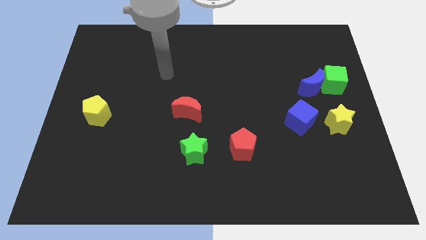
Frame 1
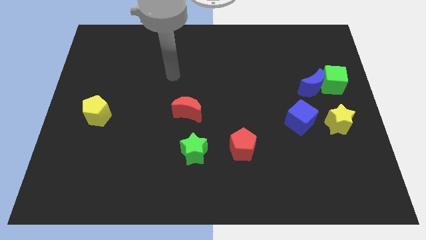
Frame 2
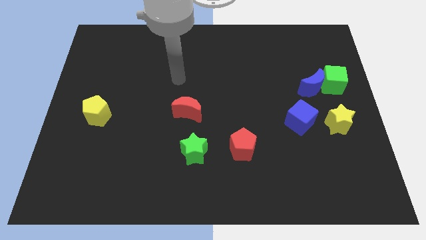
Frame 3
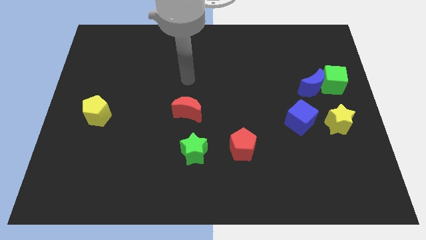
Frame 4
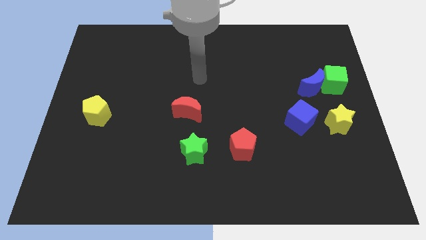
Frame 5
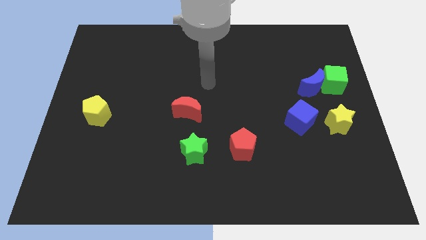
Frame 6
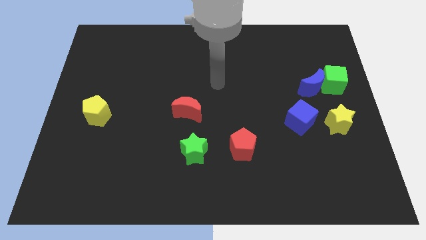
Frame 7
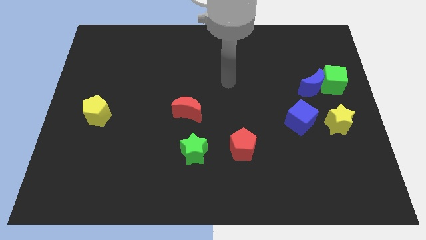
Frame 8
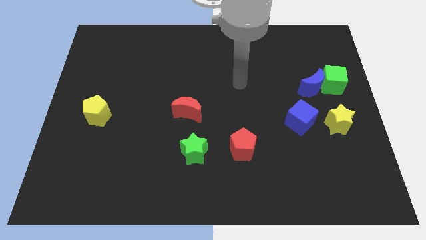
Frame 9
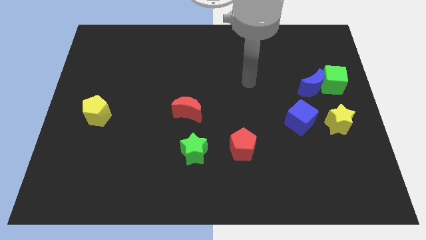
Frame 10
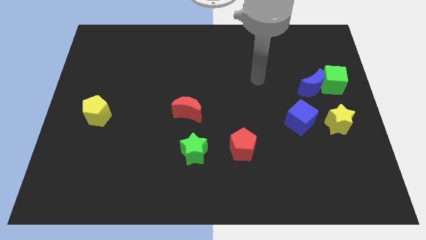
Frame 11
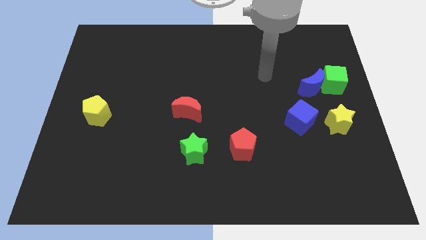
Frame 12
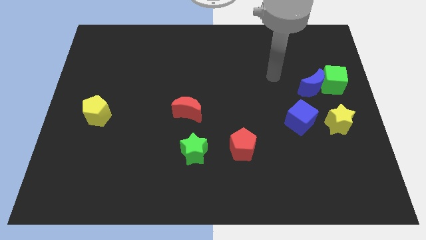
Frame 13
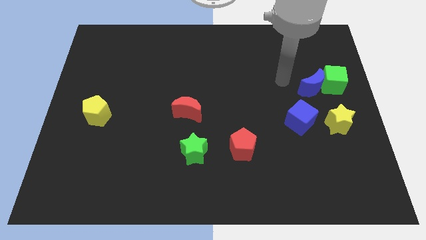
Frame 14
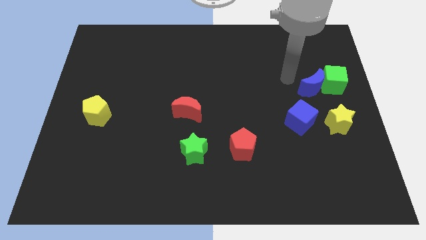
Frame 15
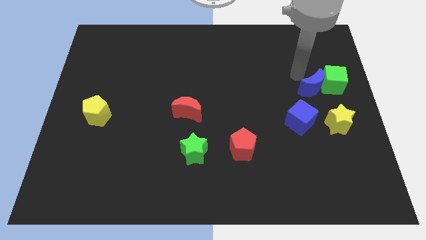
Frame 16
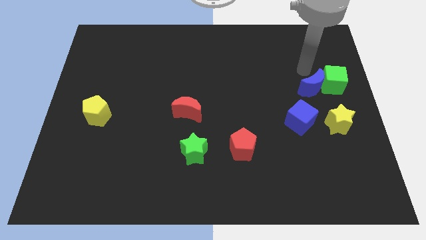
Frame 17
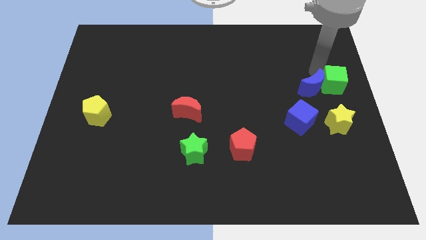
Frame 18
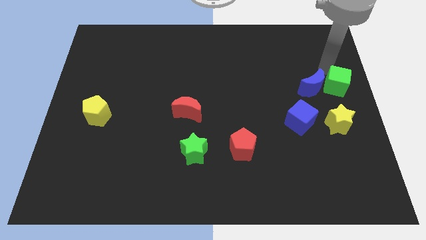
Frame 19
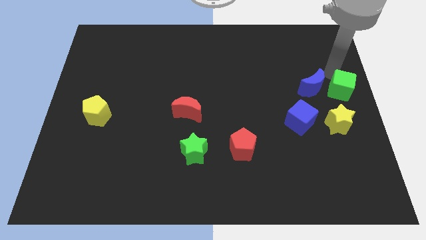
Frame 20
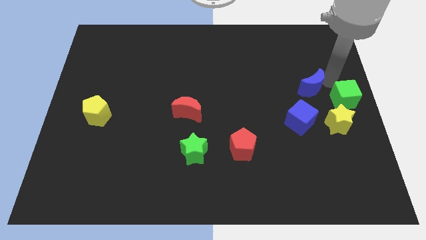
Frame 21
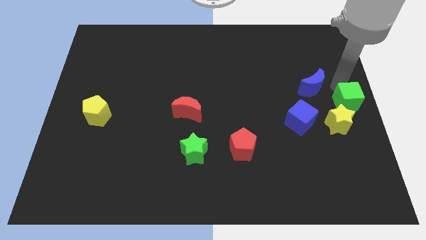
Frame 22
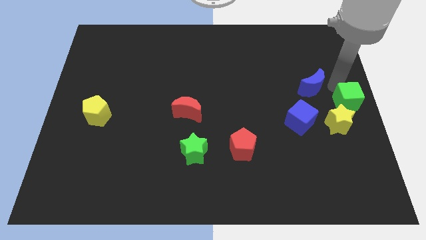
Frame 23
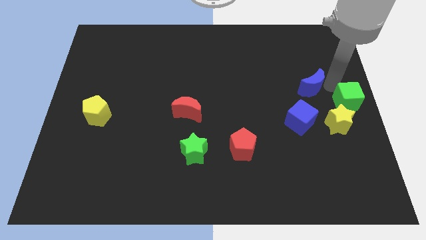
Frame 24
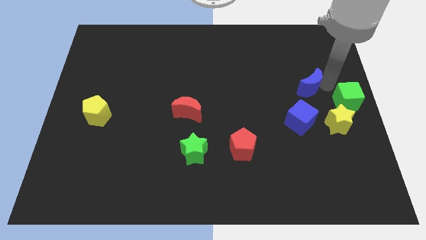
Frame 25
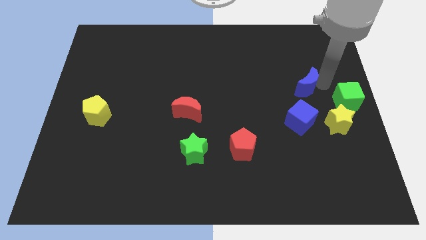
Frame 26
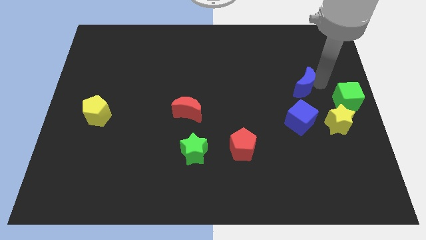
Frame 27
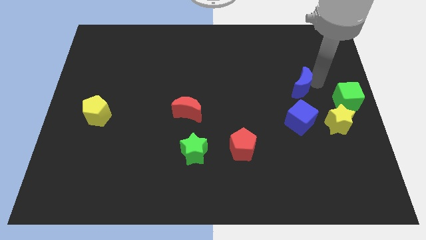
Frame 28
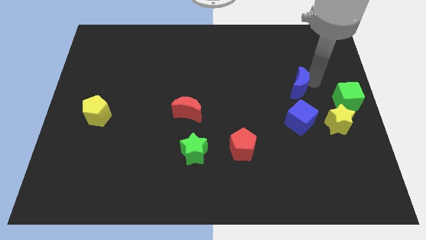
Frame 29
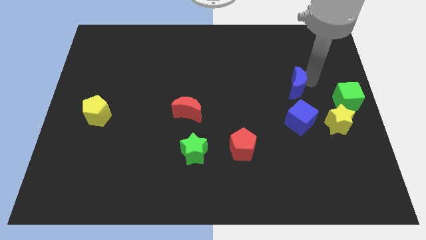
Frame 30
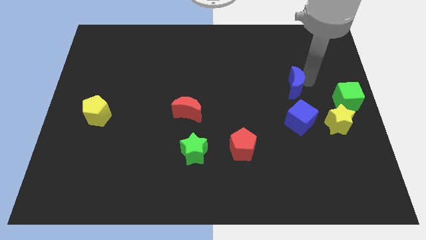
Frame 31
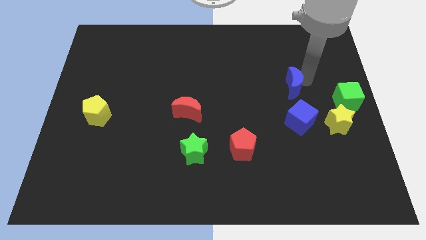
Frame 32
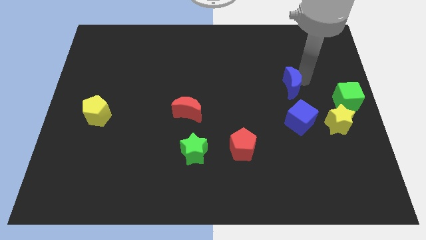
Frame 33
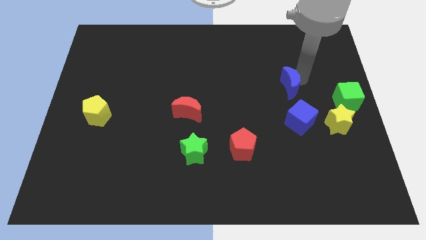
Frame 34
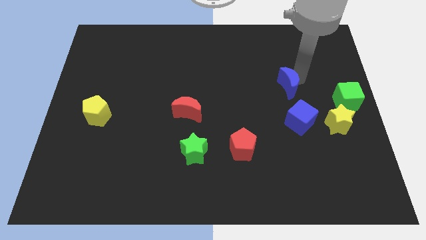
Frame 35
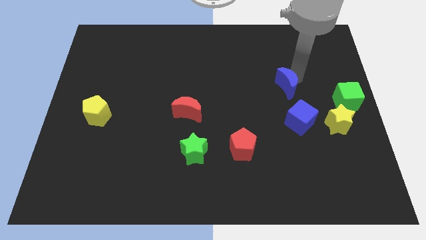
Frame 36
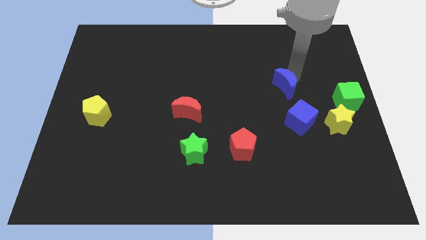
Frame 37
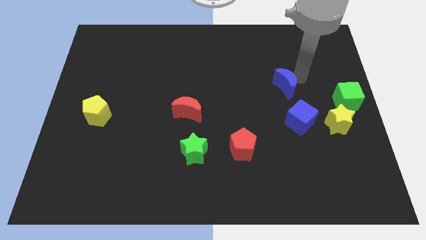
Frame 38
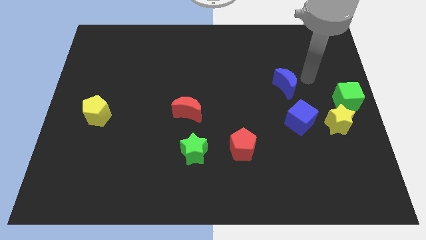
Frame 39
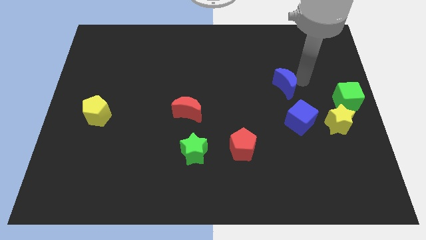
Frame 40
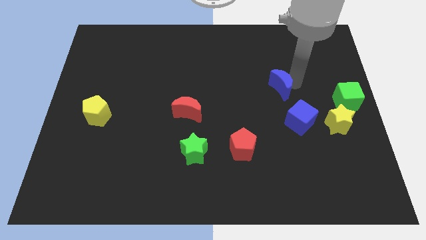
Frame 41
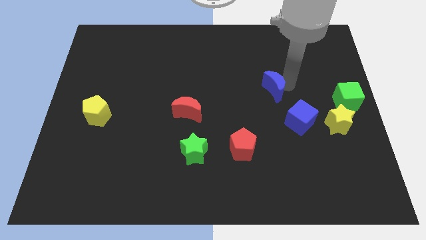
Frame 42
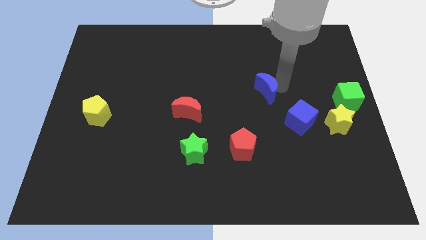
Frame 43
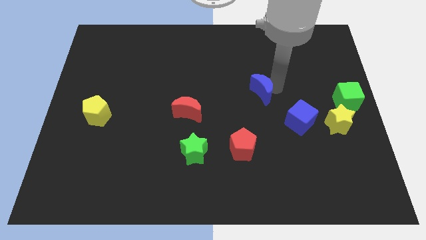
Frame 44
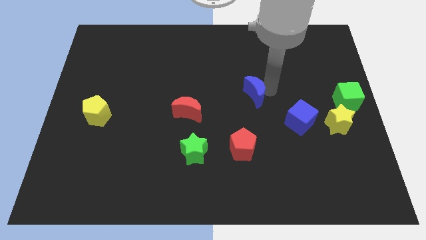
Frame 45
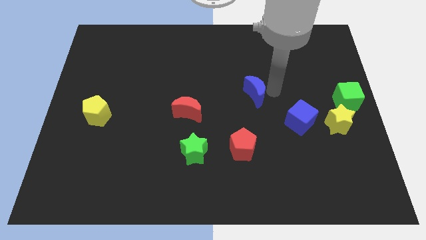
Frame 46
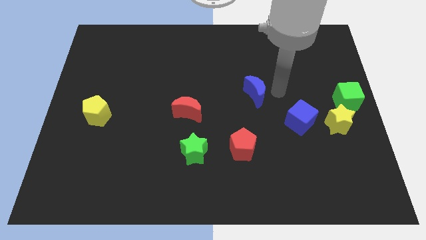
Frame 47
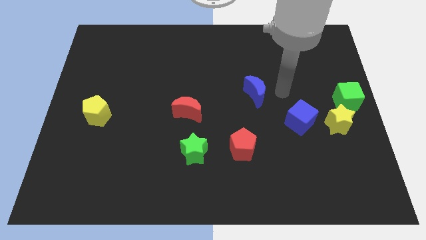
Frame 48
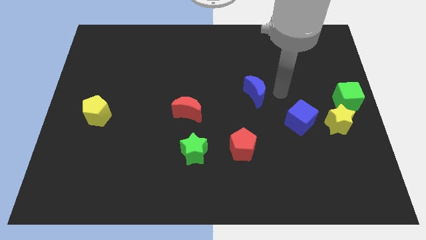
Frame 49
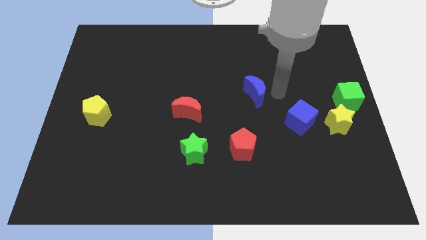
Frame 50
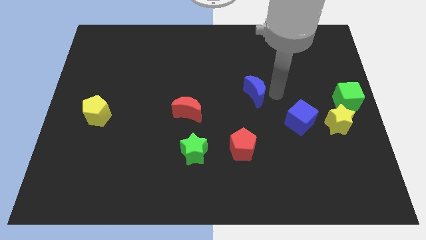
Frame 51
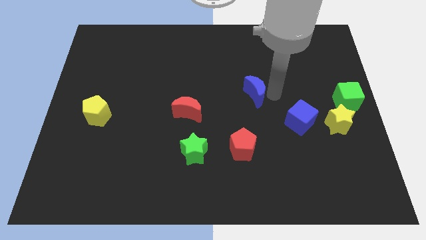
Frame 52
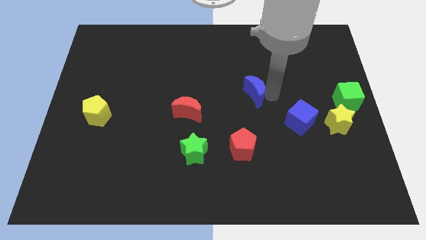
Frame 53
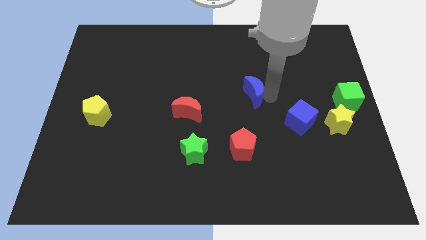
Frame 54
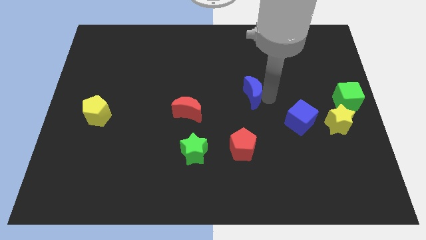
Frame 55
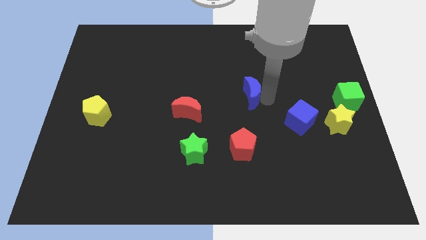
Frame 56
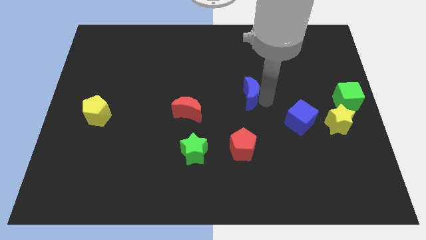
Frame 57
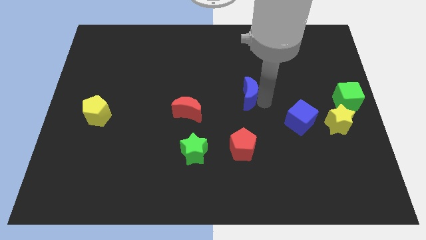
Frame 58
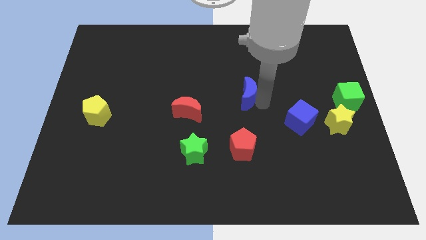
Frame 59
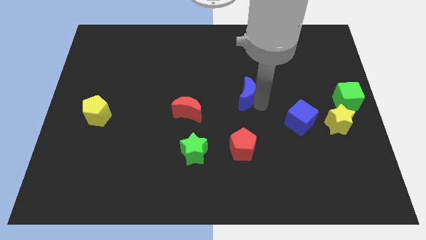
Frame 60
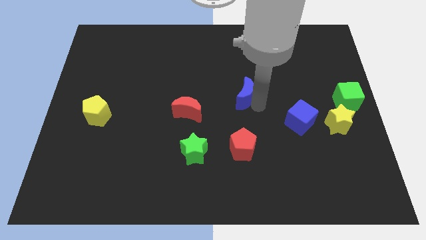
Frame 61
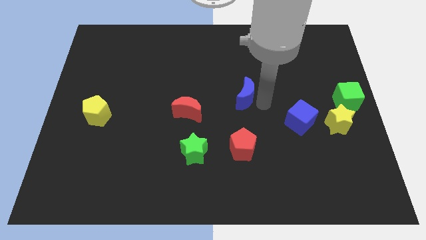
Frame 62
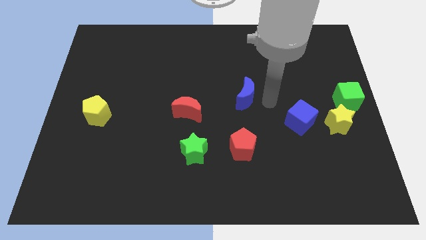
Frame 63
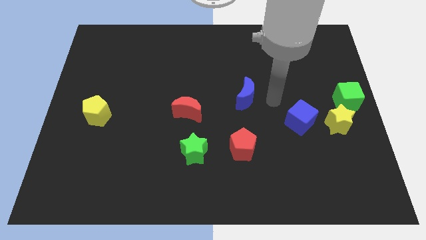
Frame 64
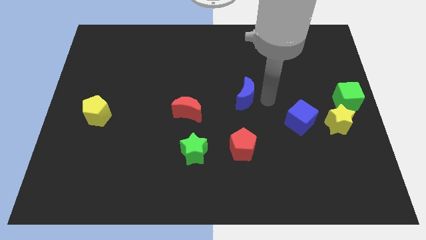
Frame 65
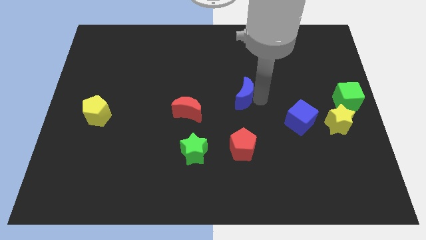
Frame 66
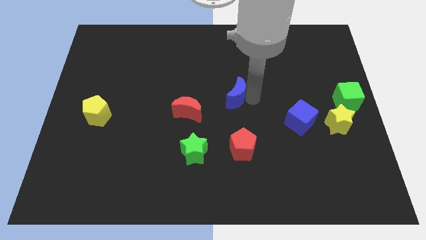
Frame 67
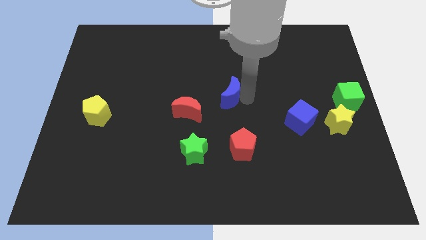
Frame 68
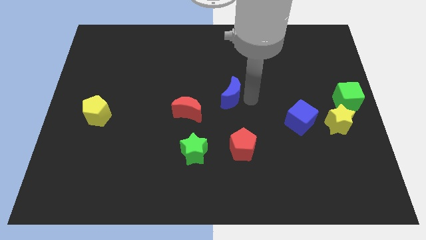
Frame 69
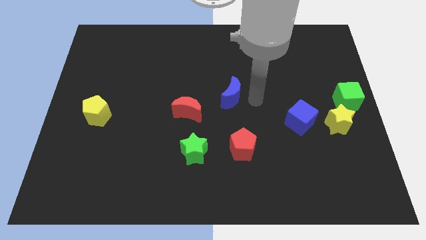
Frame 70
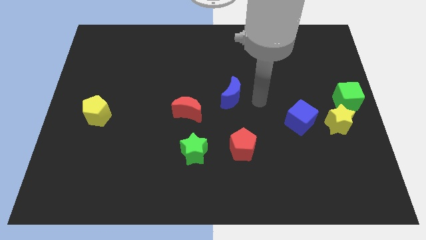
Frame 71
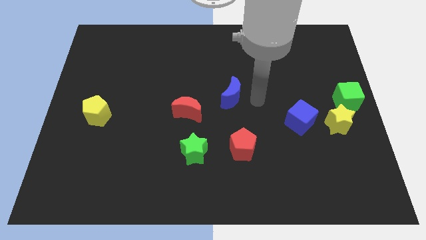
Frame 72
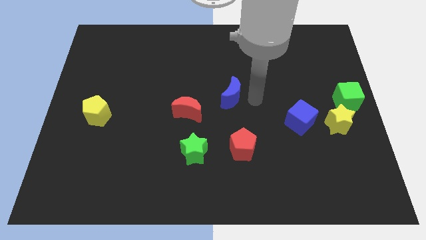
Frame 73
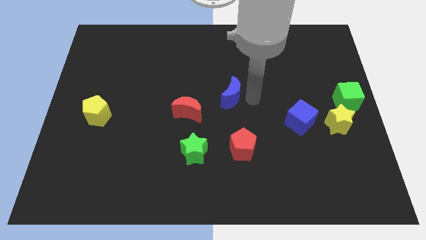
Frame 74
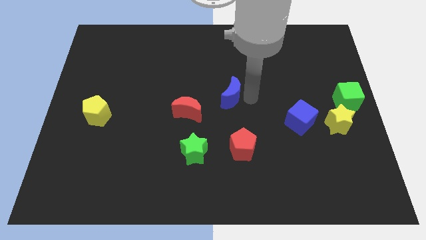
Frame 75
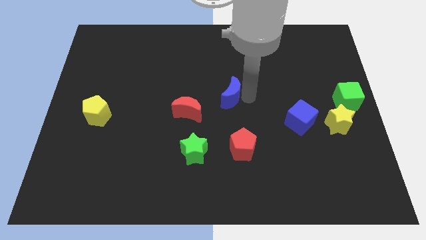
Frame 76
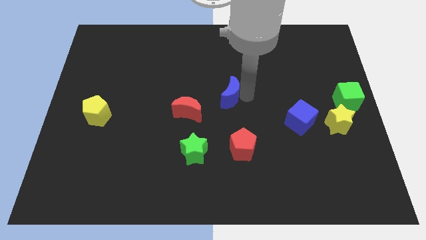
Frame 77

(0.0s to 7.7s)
push the blue moon to the left

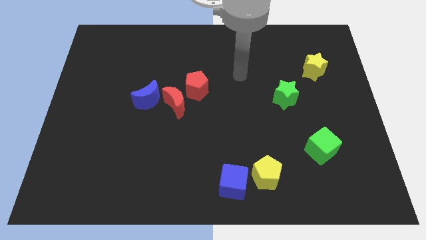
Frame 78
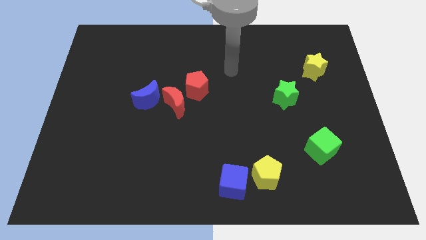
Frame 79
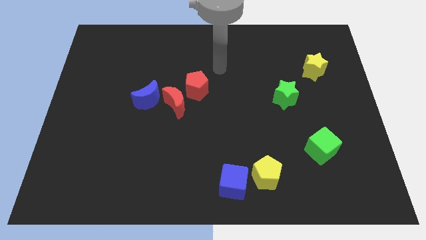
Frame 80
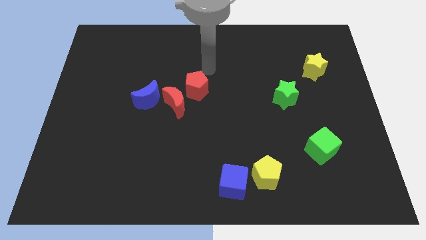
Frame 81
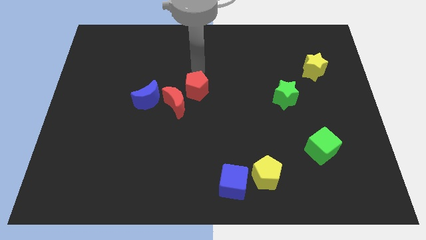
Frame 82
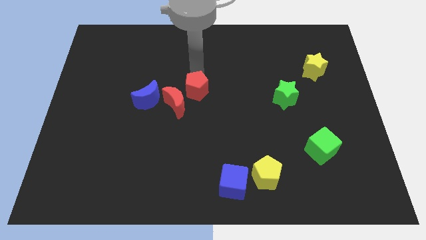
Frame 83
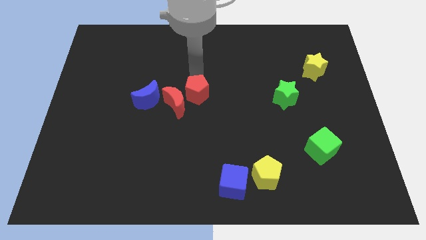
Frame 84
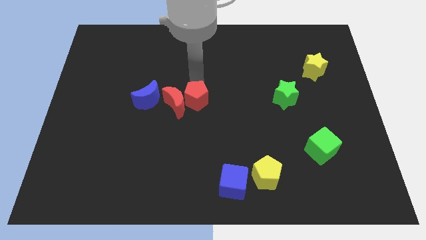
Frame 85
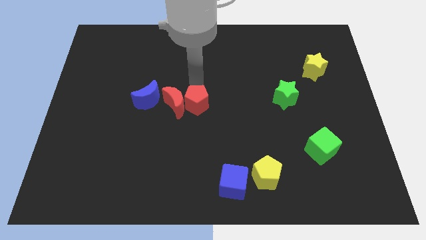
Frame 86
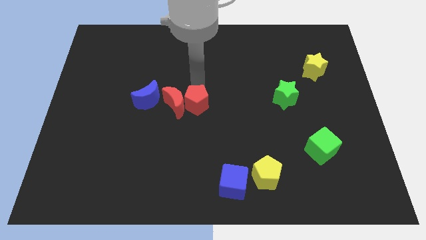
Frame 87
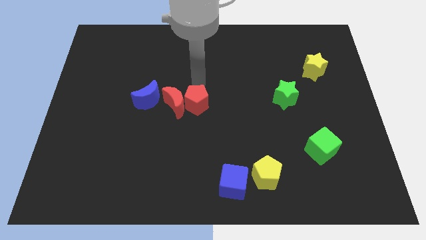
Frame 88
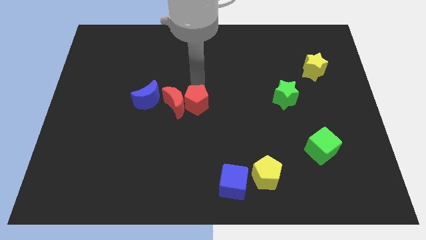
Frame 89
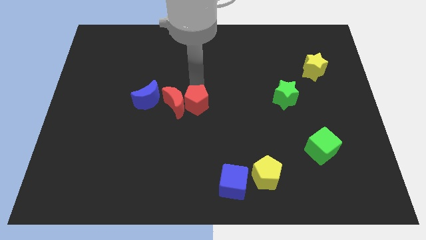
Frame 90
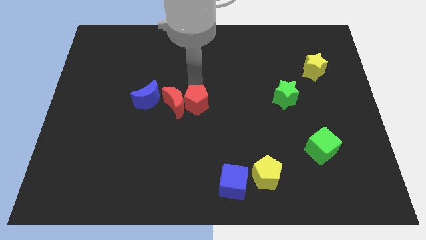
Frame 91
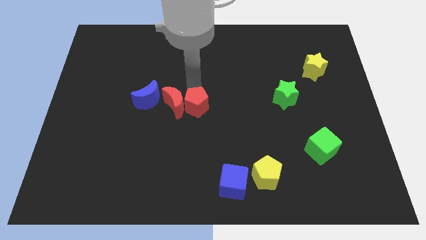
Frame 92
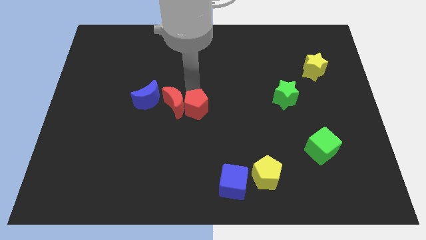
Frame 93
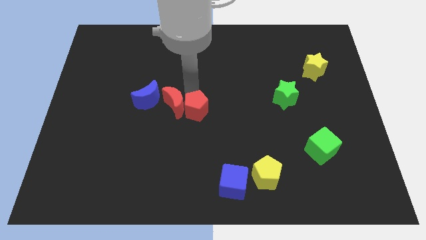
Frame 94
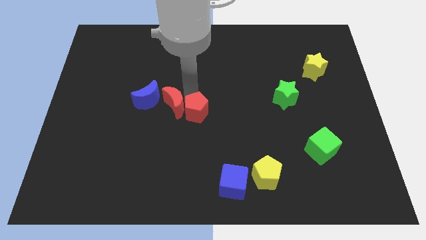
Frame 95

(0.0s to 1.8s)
move the red pentagon a little downwards
